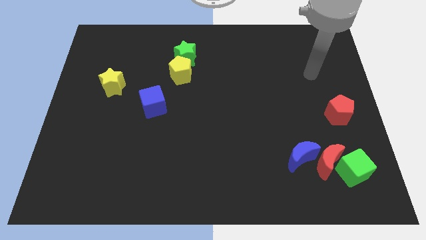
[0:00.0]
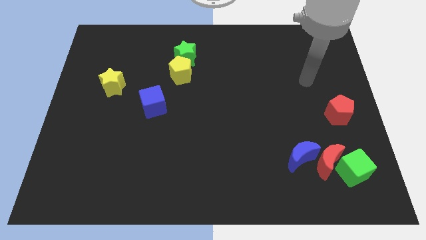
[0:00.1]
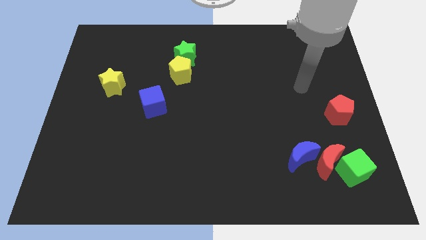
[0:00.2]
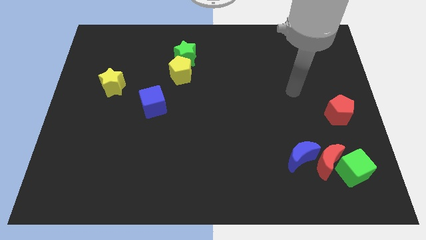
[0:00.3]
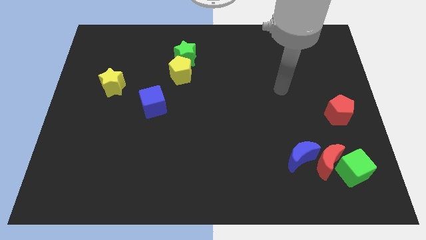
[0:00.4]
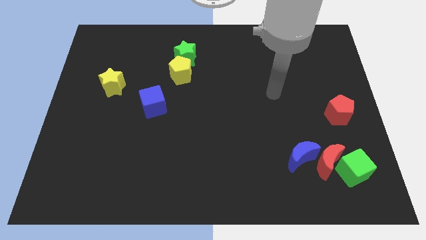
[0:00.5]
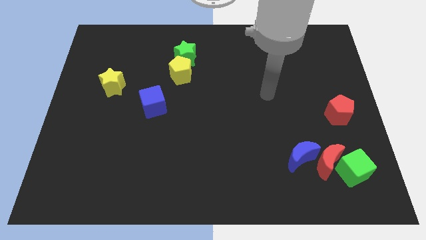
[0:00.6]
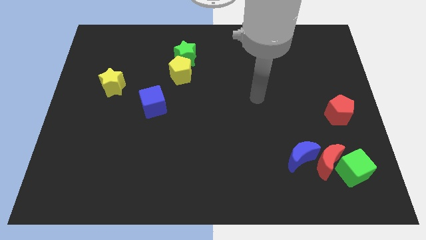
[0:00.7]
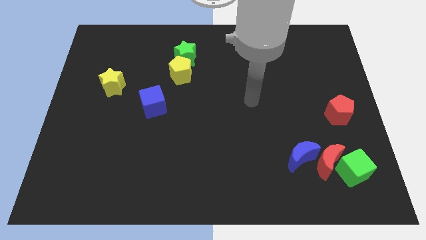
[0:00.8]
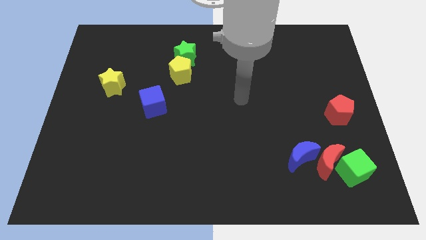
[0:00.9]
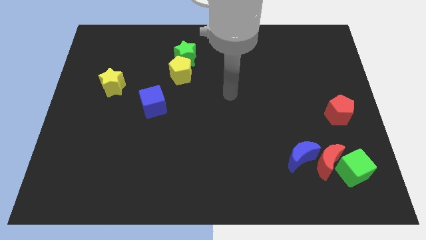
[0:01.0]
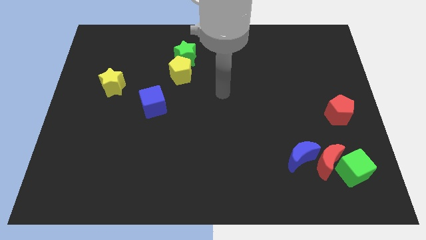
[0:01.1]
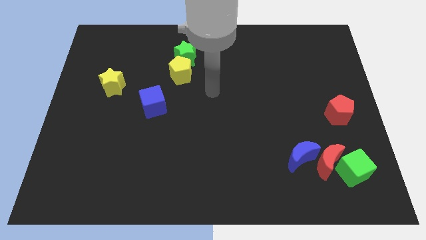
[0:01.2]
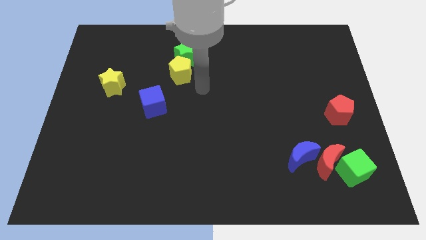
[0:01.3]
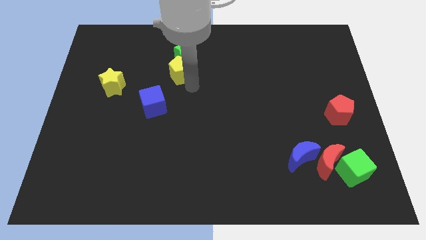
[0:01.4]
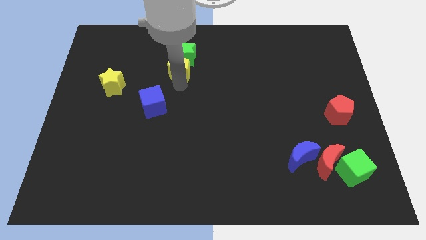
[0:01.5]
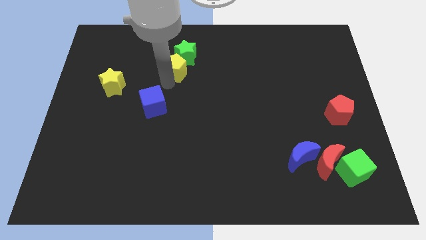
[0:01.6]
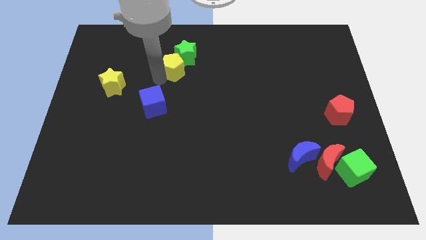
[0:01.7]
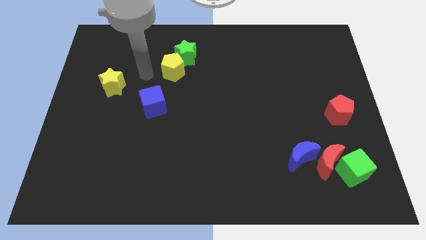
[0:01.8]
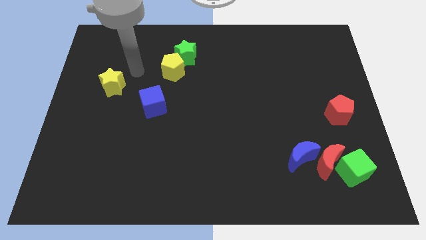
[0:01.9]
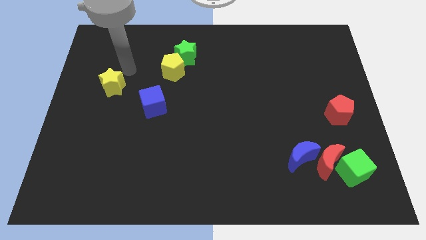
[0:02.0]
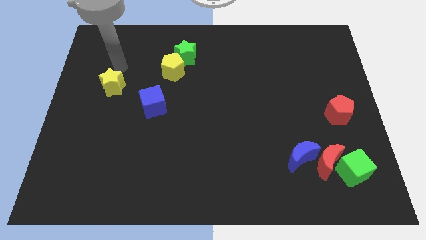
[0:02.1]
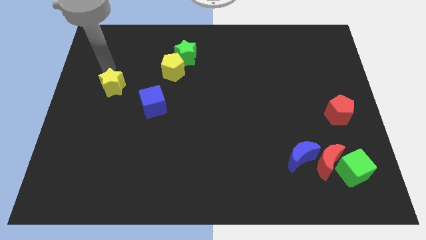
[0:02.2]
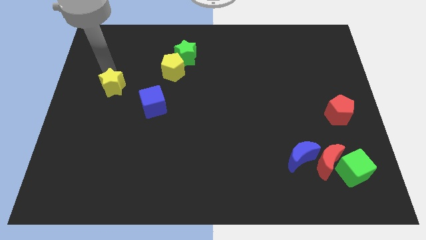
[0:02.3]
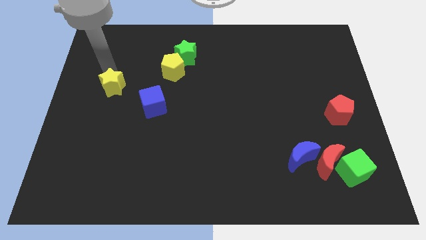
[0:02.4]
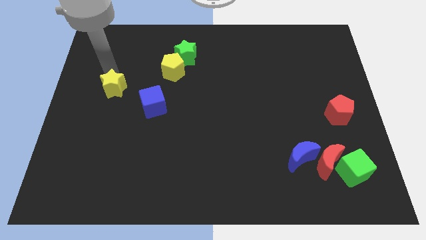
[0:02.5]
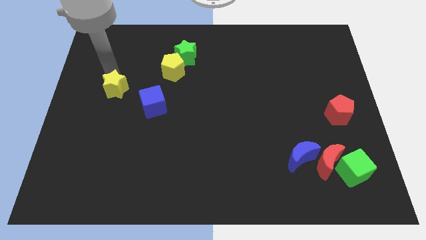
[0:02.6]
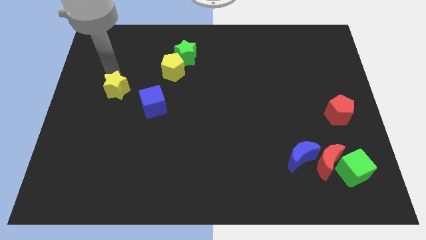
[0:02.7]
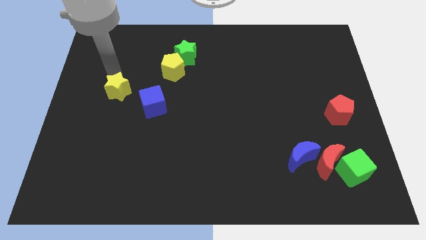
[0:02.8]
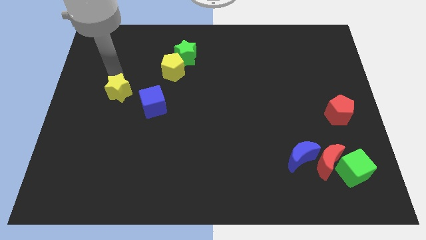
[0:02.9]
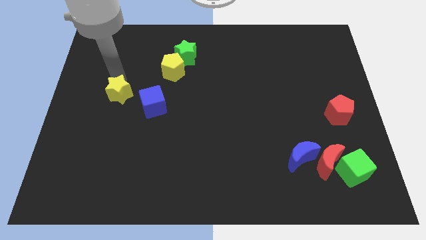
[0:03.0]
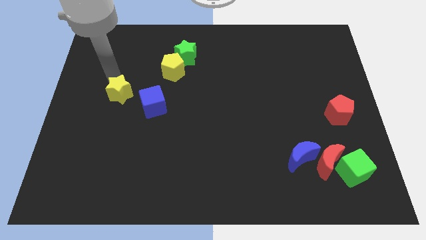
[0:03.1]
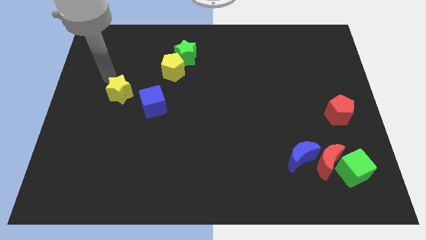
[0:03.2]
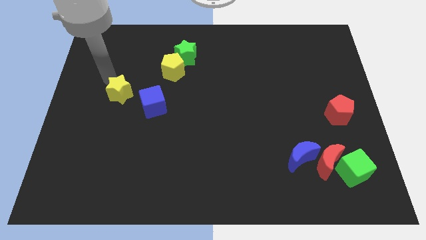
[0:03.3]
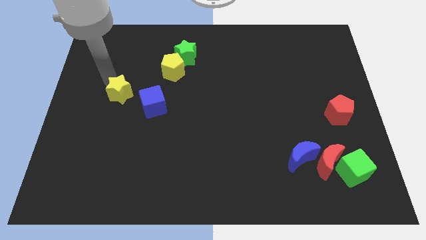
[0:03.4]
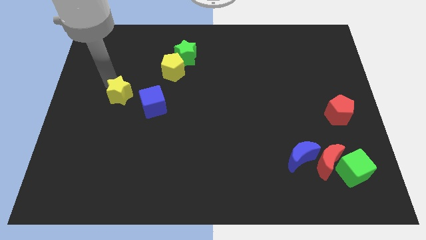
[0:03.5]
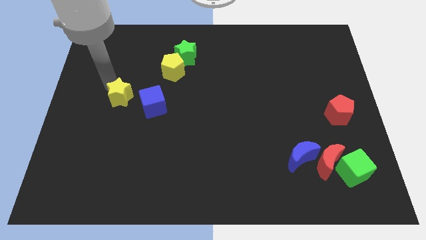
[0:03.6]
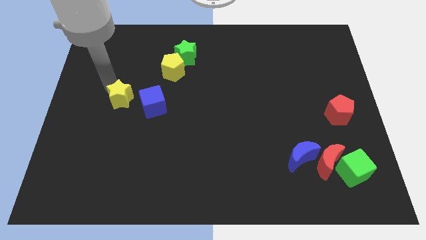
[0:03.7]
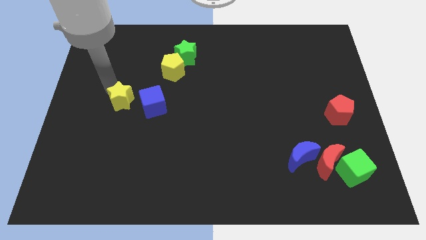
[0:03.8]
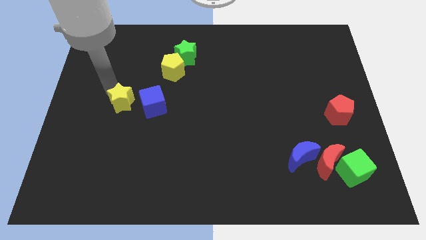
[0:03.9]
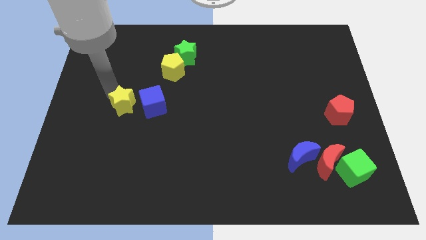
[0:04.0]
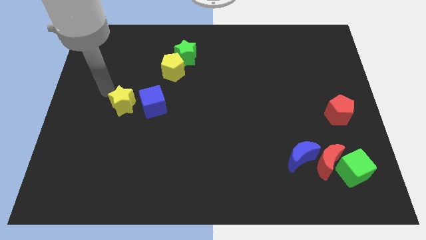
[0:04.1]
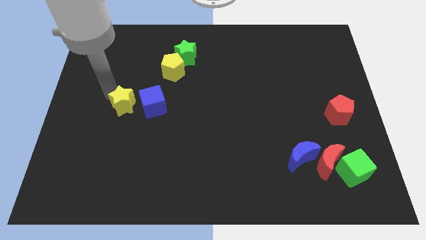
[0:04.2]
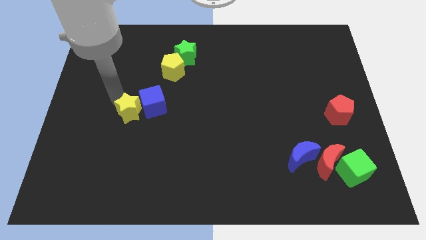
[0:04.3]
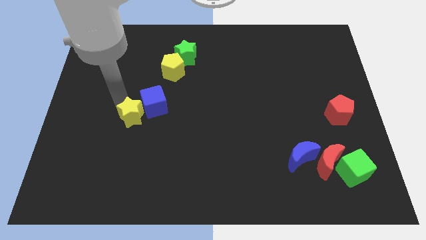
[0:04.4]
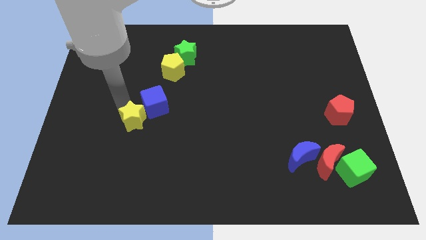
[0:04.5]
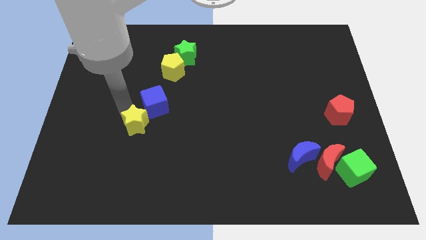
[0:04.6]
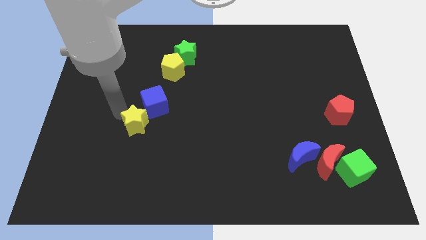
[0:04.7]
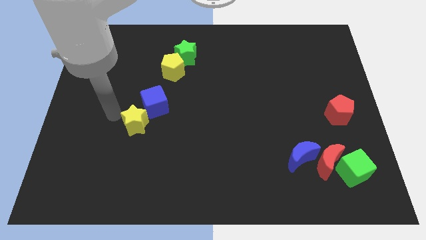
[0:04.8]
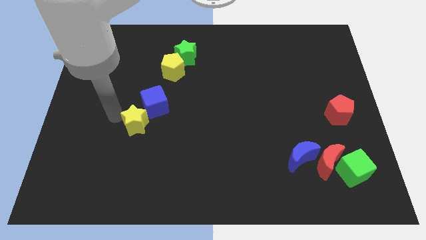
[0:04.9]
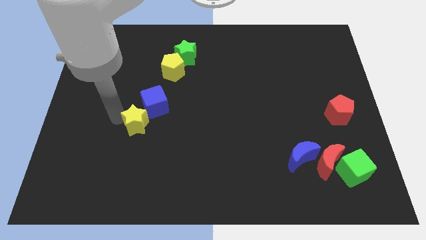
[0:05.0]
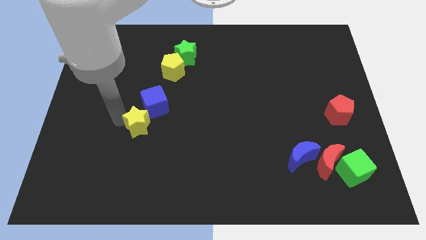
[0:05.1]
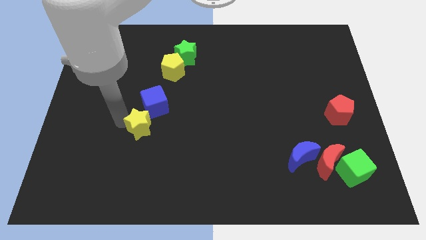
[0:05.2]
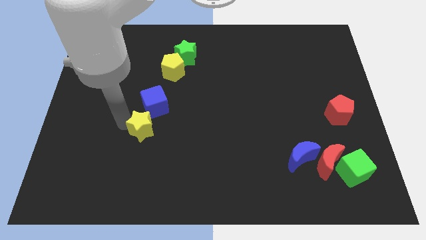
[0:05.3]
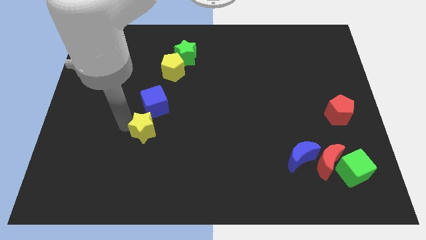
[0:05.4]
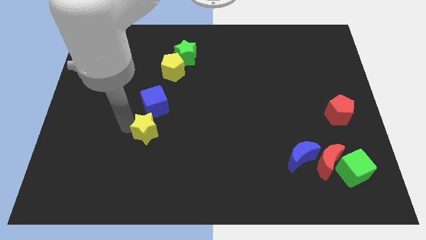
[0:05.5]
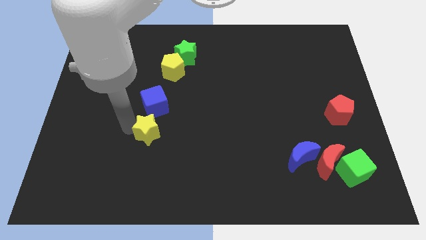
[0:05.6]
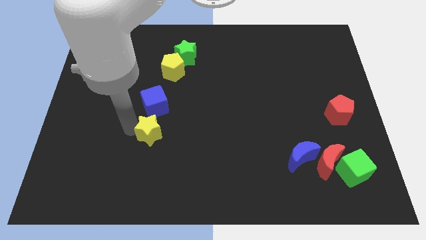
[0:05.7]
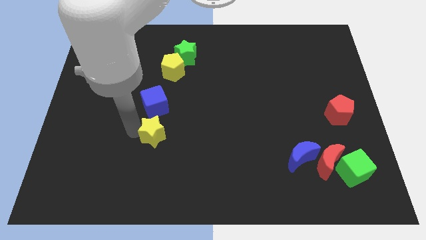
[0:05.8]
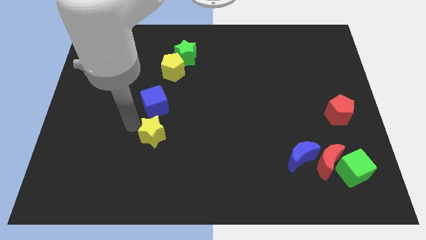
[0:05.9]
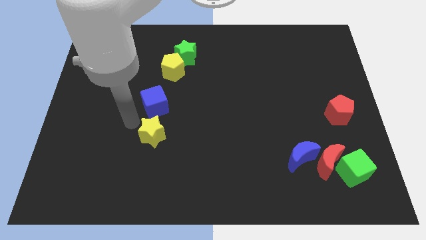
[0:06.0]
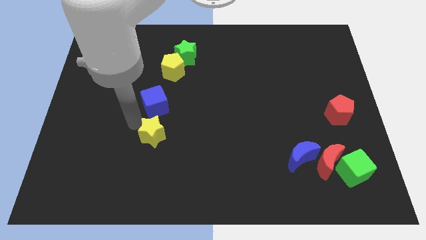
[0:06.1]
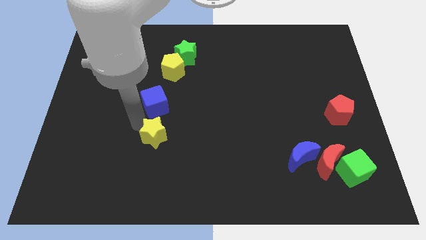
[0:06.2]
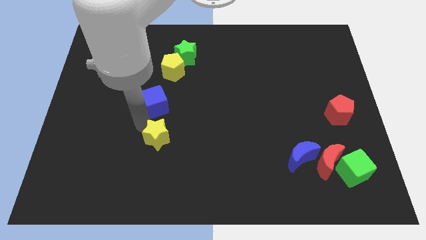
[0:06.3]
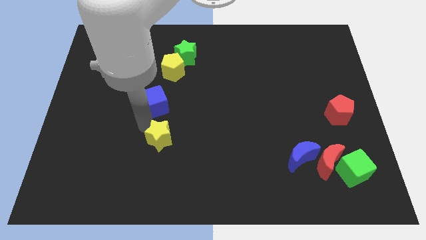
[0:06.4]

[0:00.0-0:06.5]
move the yellow star downwards and then to the right

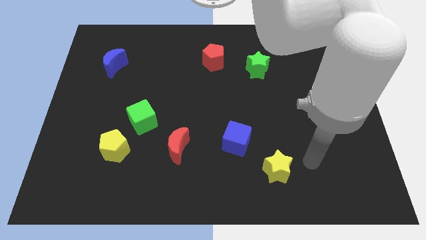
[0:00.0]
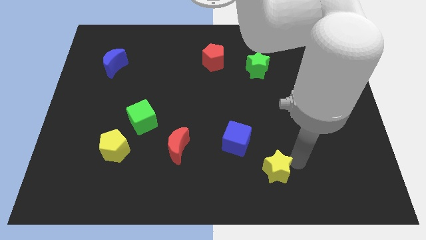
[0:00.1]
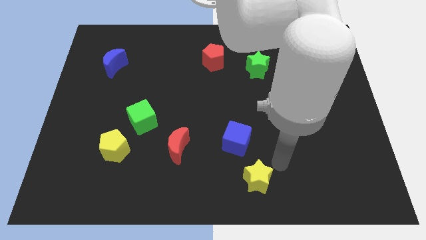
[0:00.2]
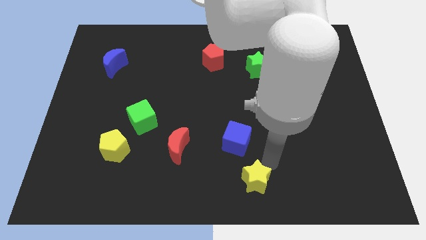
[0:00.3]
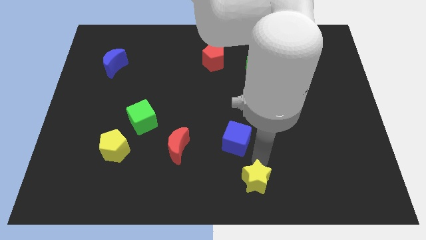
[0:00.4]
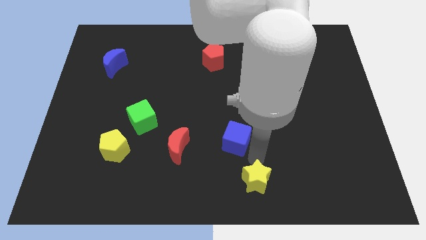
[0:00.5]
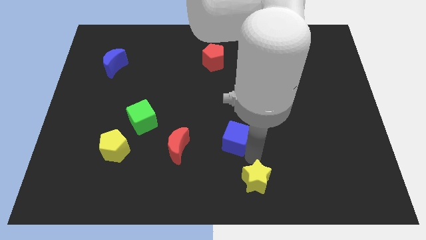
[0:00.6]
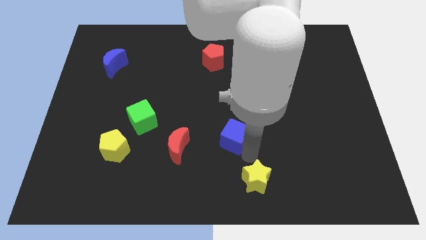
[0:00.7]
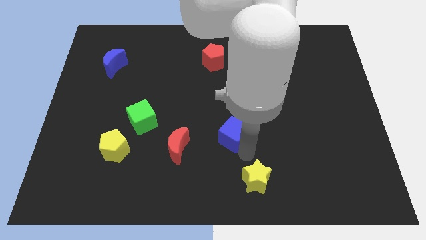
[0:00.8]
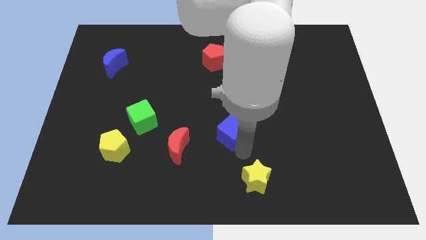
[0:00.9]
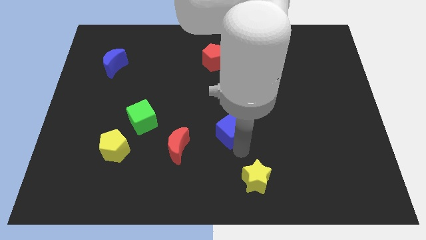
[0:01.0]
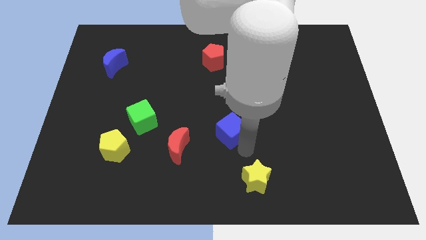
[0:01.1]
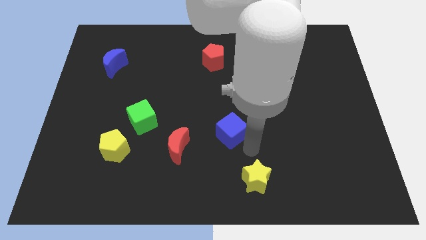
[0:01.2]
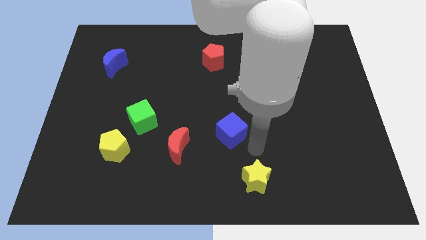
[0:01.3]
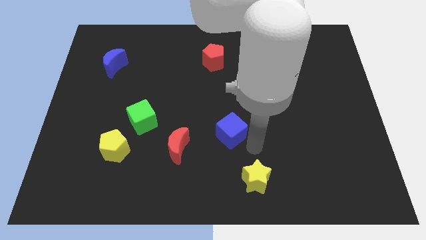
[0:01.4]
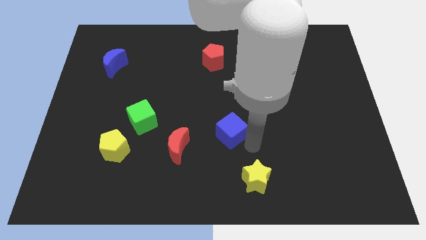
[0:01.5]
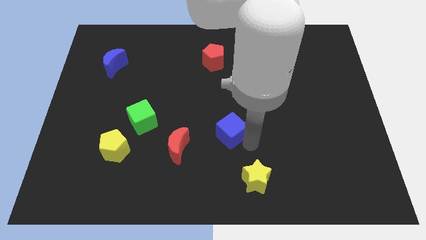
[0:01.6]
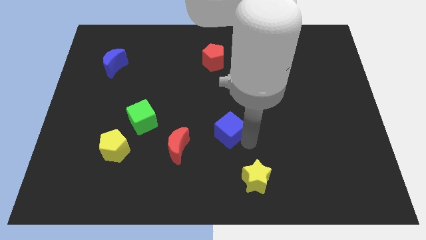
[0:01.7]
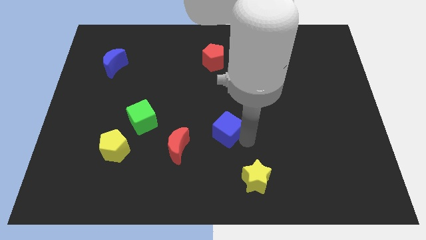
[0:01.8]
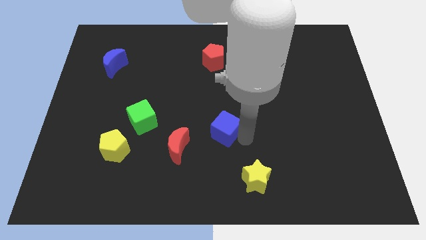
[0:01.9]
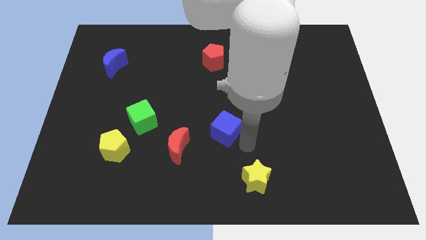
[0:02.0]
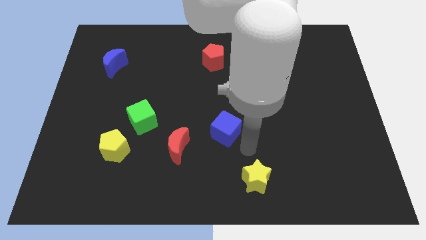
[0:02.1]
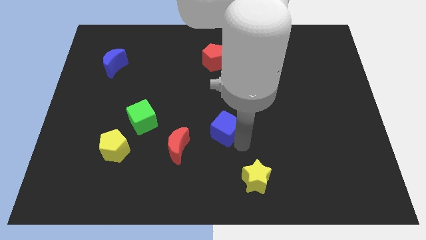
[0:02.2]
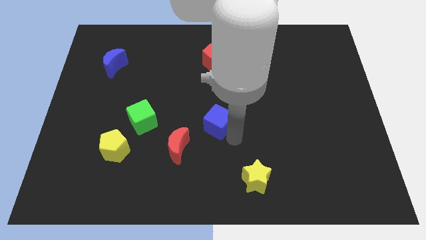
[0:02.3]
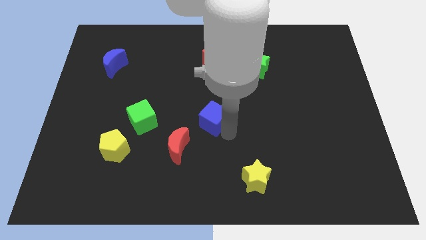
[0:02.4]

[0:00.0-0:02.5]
slide the blue cube a bit up and to the left
